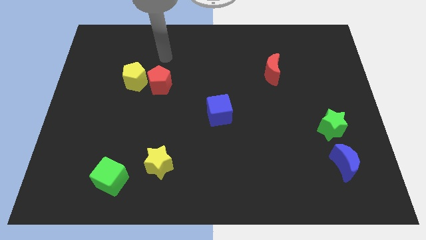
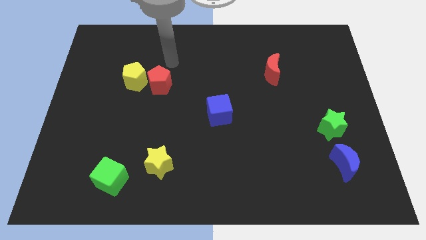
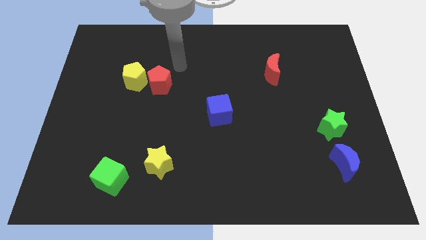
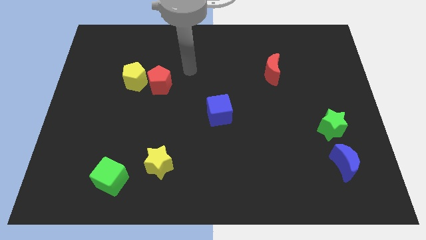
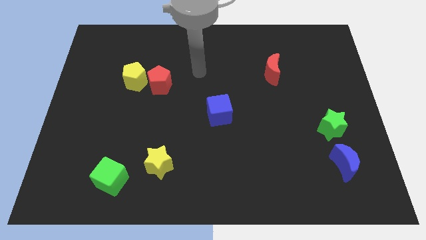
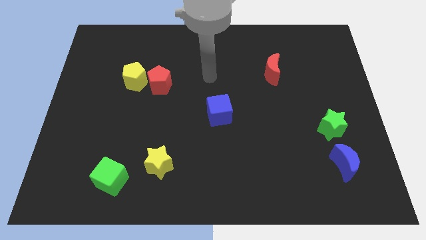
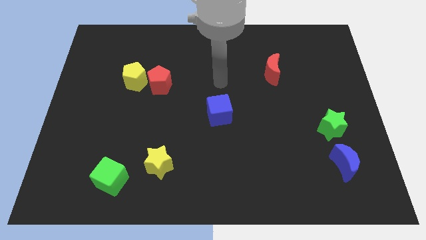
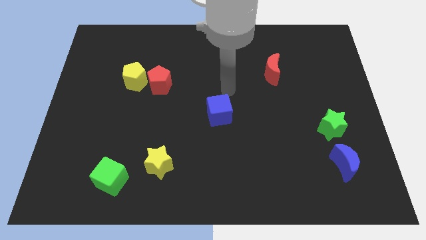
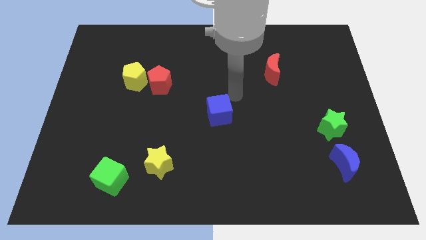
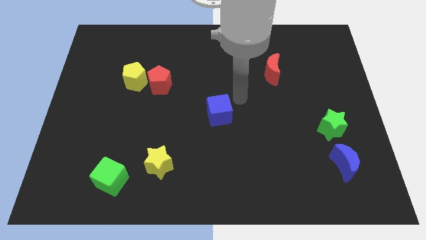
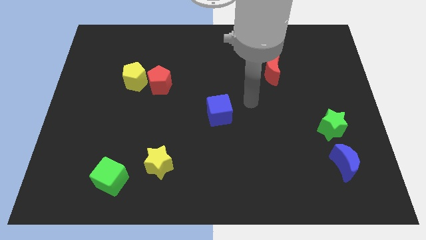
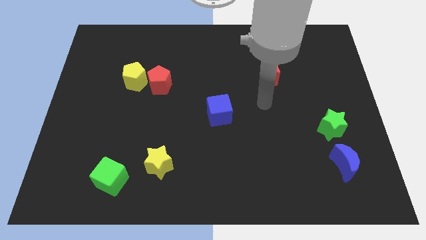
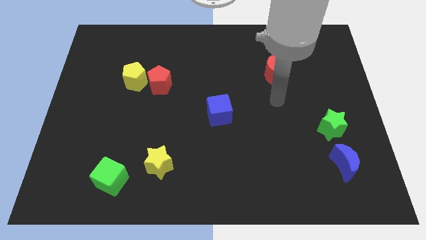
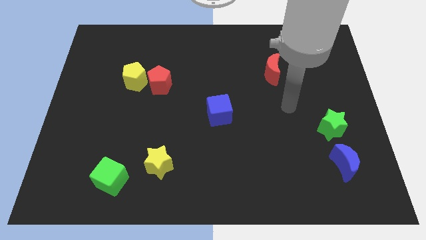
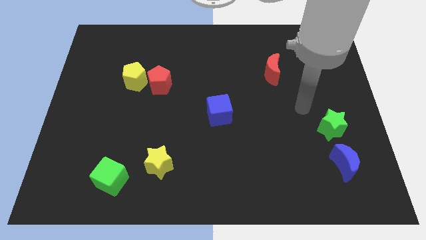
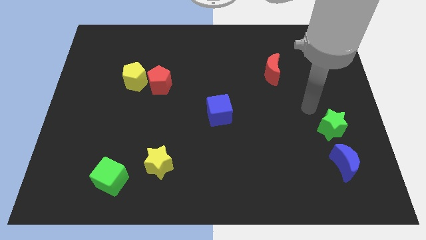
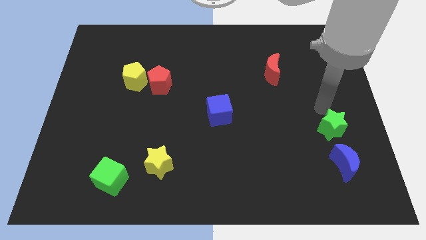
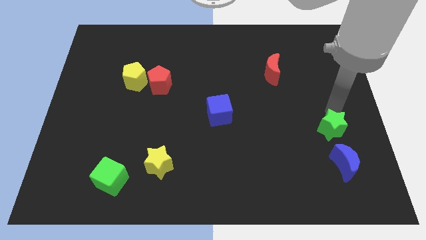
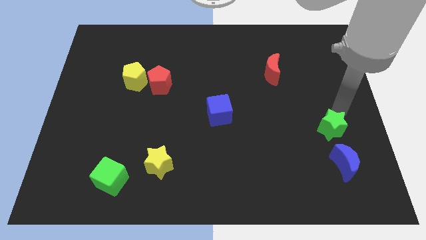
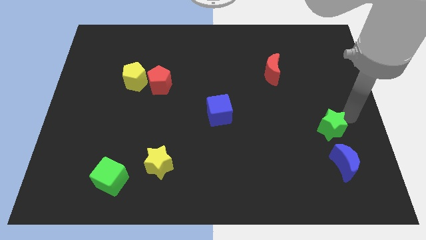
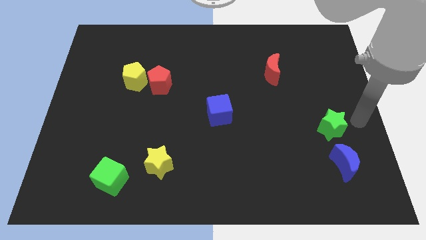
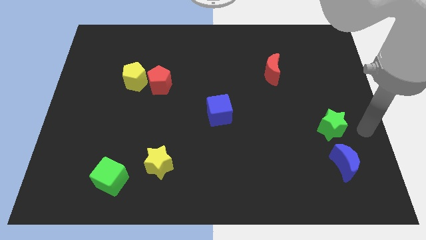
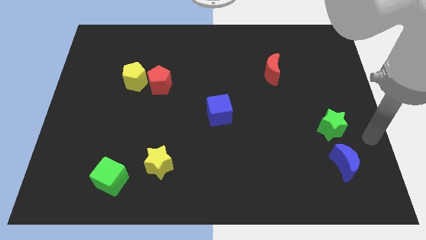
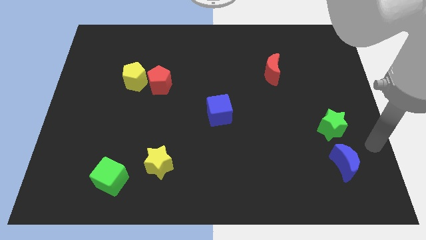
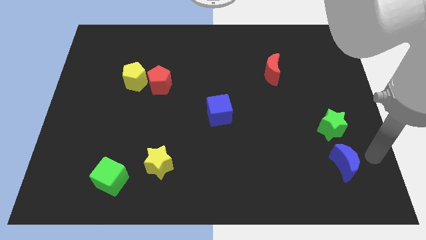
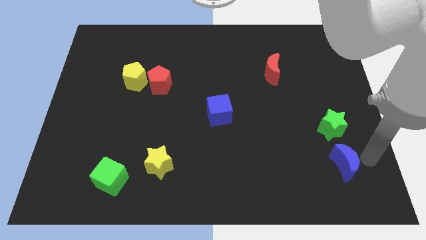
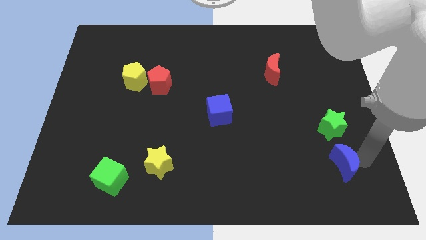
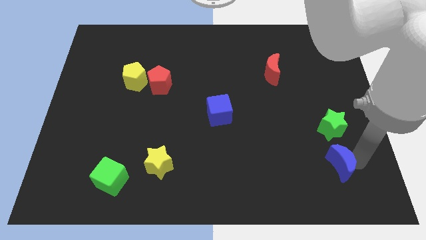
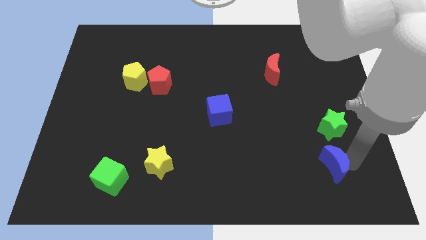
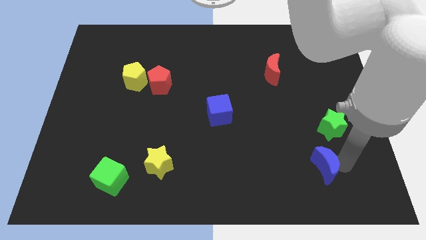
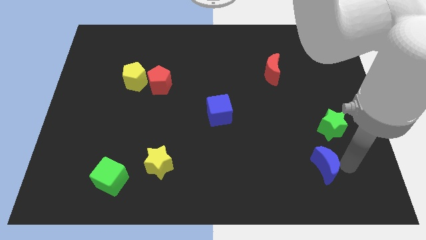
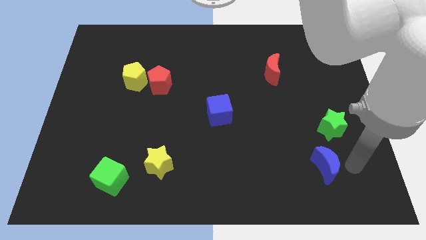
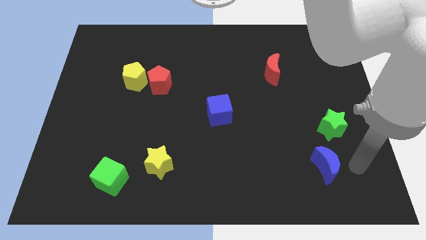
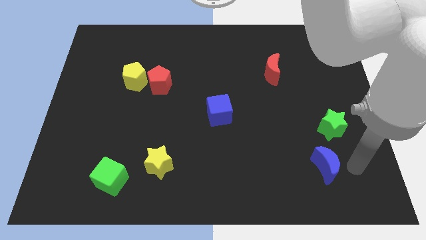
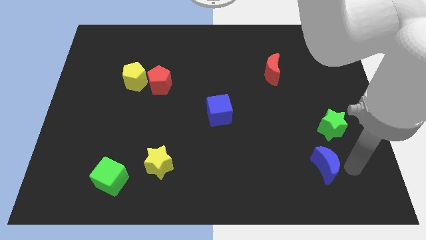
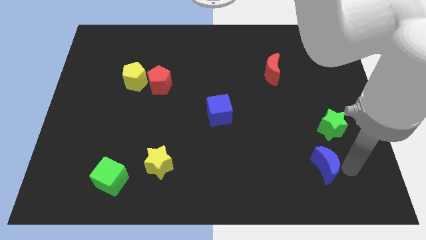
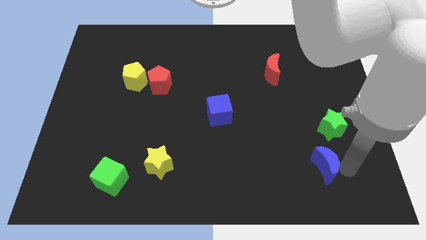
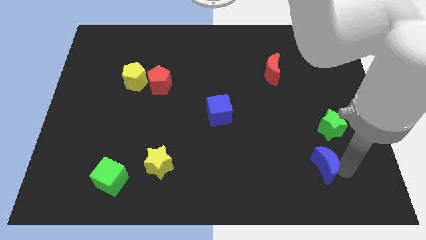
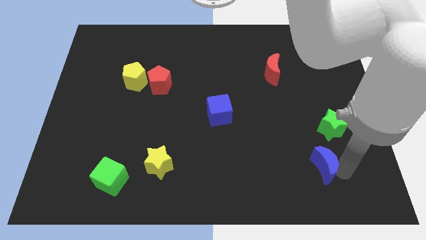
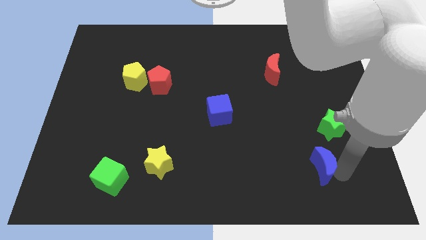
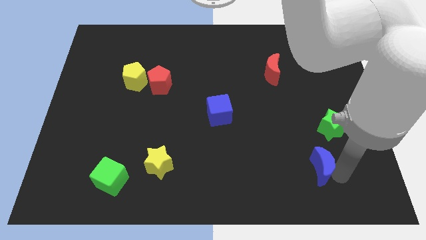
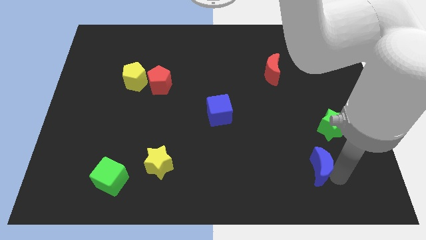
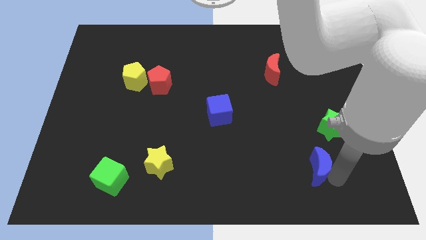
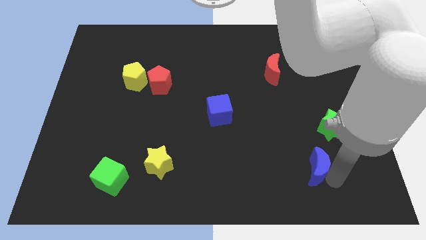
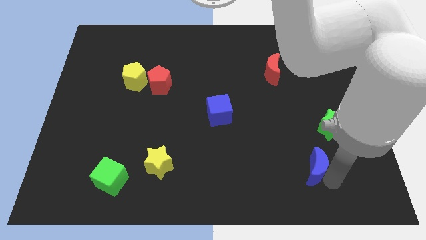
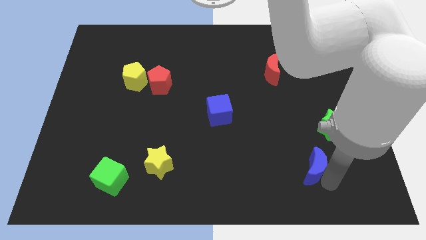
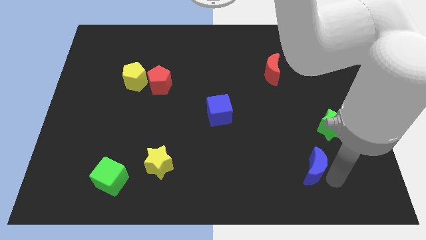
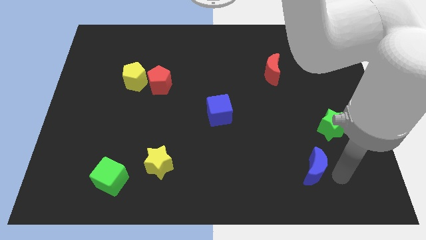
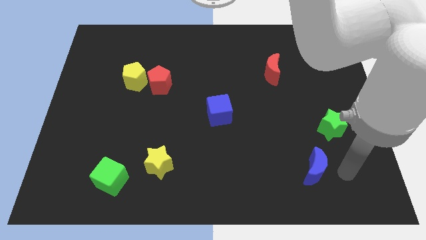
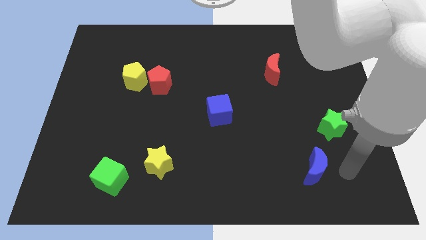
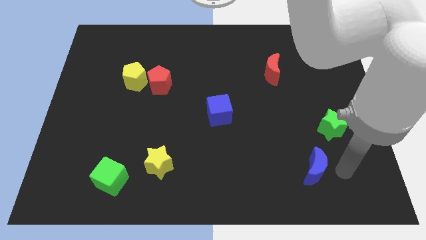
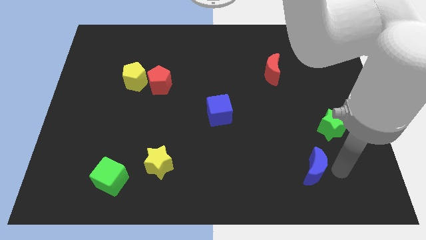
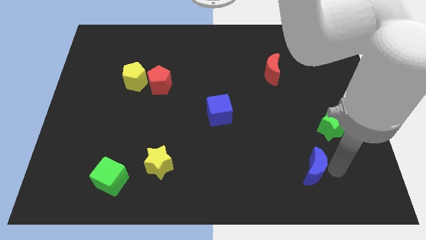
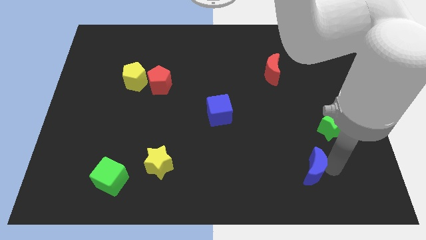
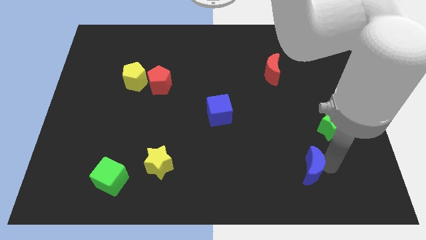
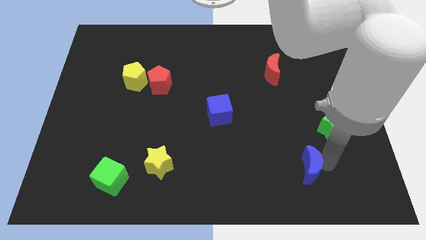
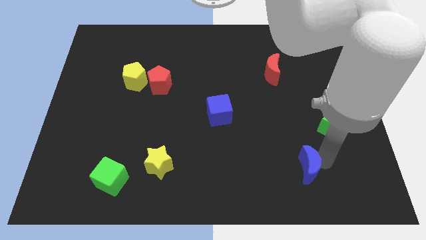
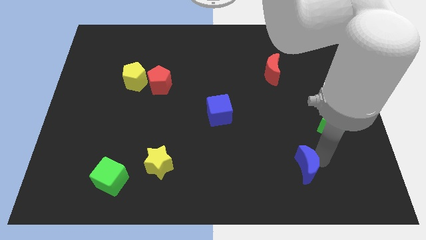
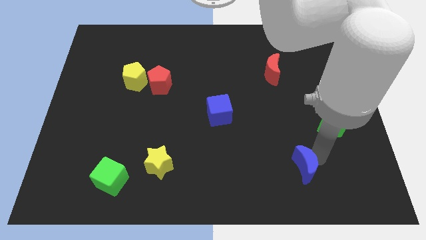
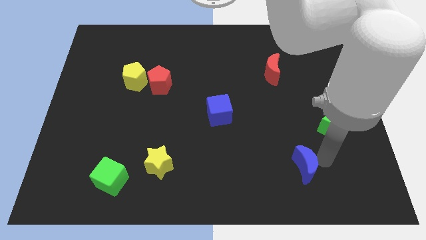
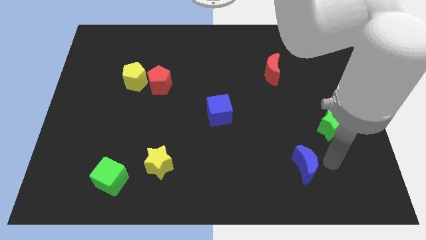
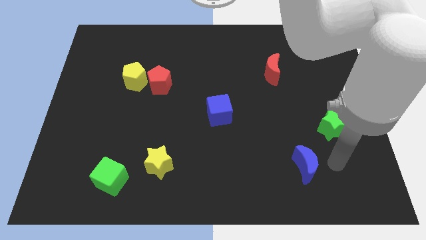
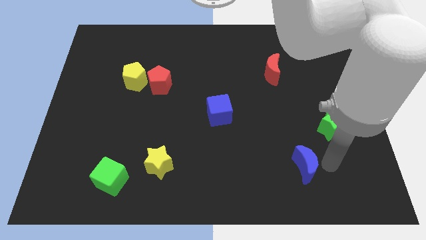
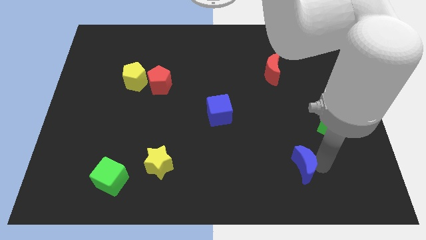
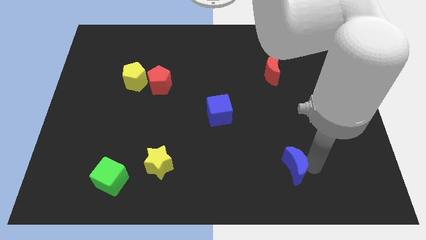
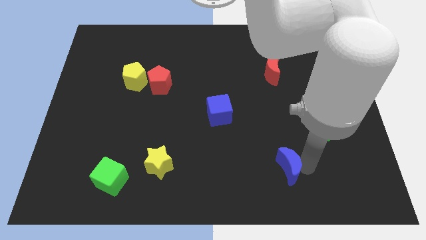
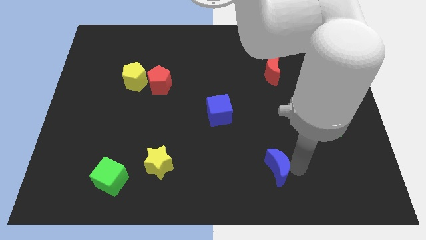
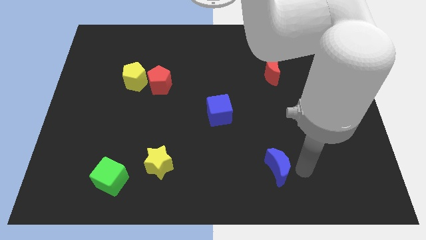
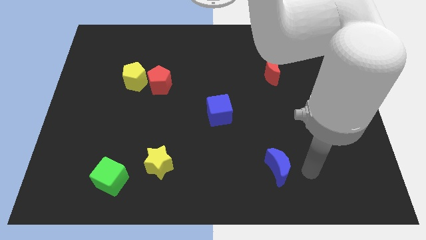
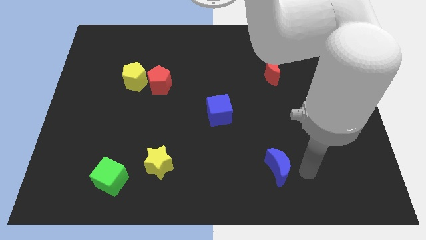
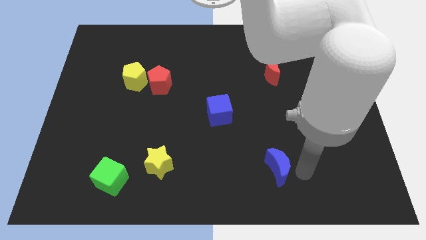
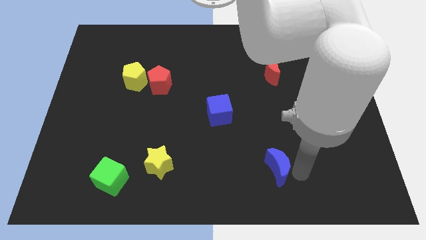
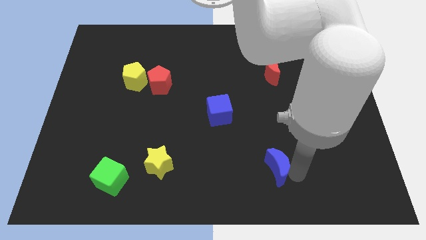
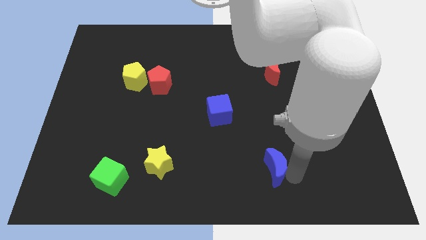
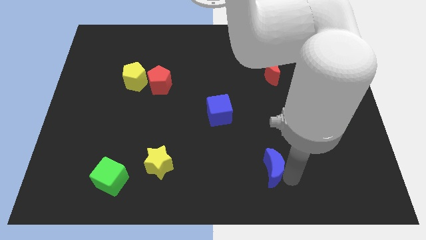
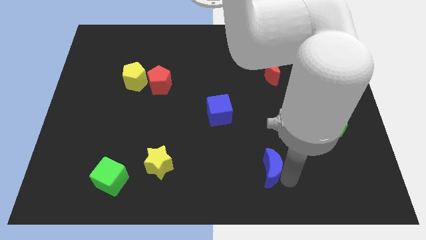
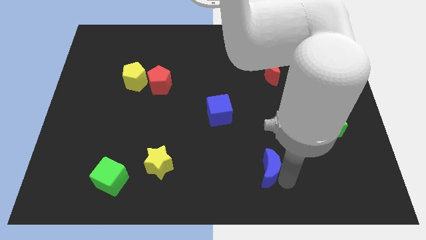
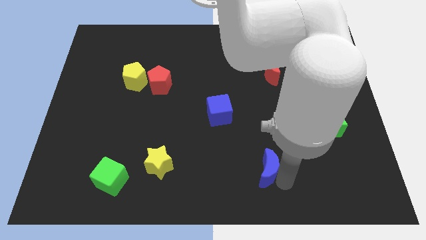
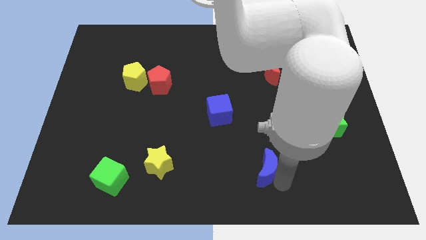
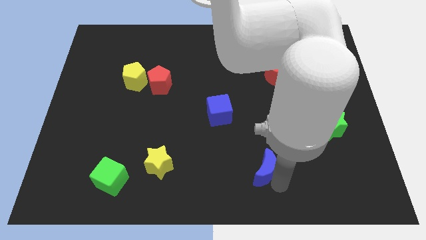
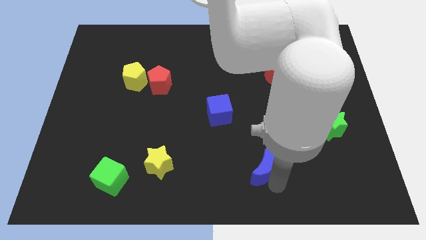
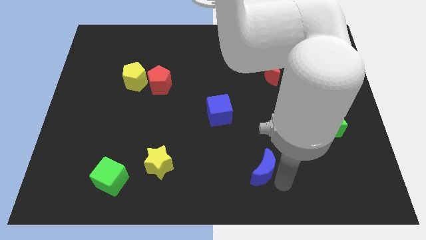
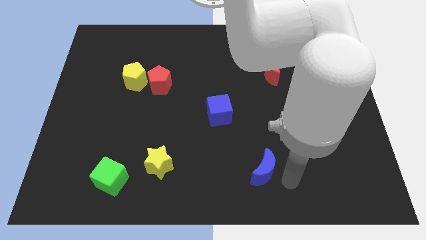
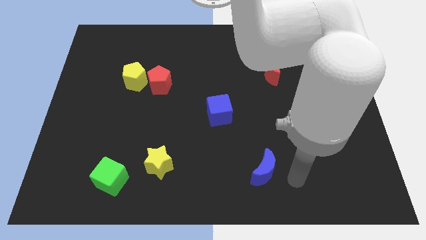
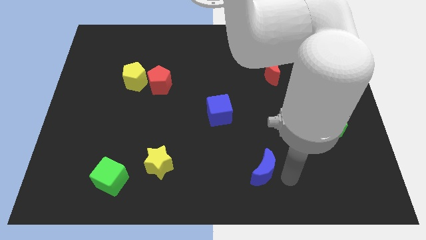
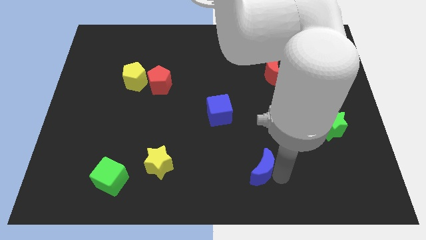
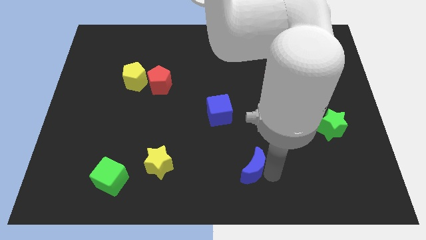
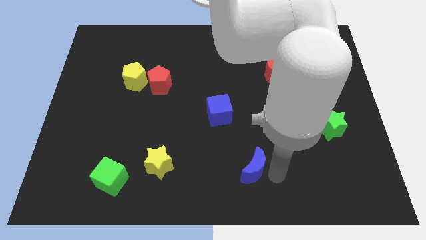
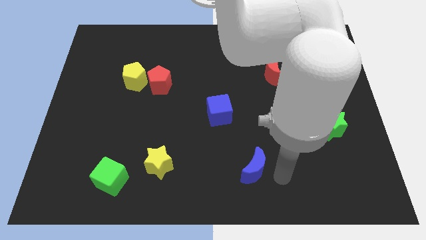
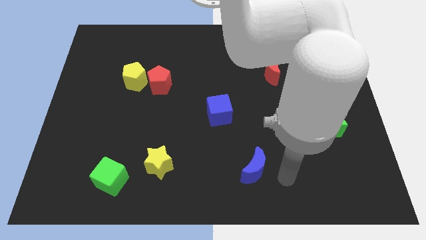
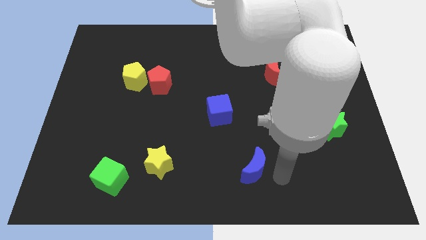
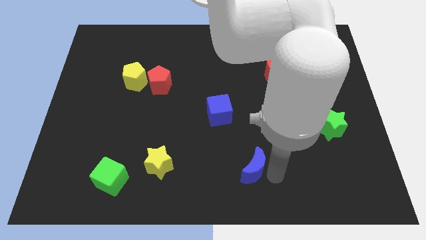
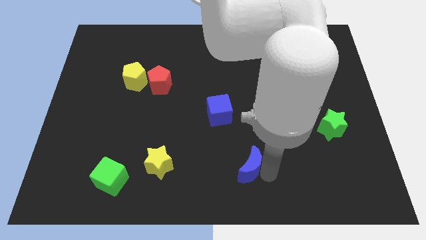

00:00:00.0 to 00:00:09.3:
move the blue moon left
